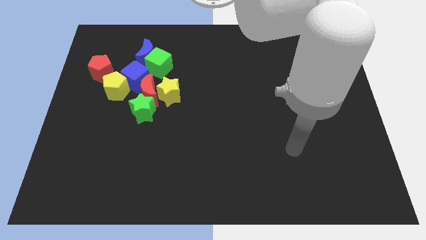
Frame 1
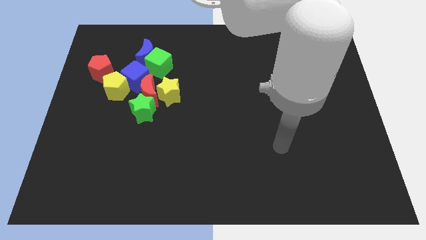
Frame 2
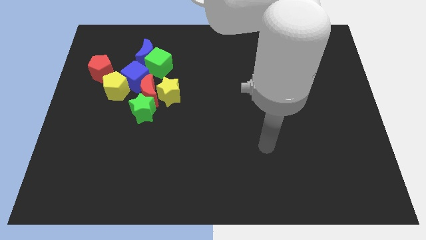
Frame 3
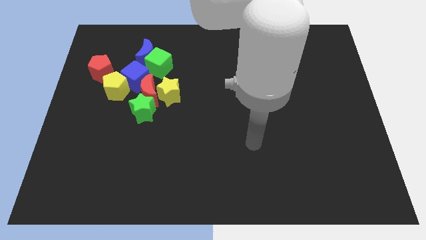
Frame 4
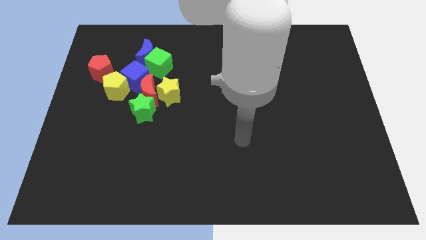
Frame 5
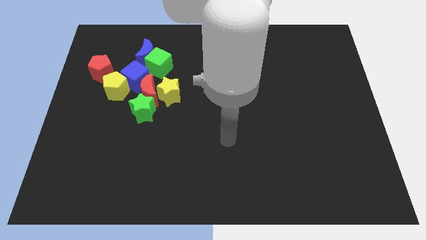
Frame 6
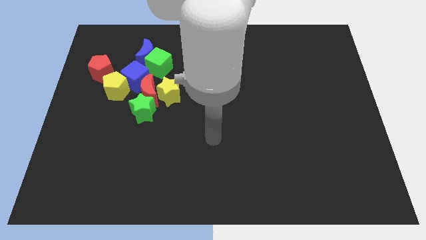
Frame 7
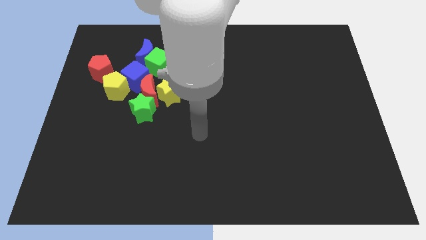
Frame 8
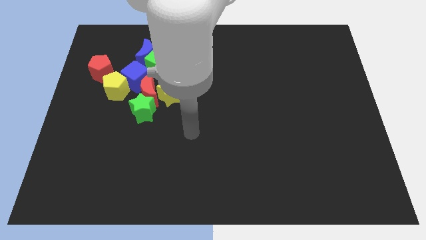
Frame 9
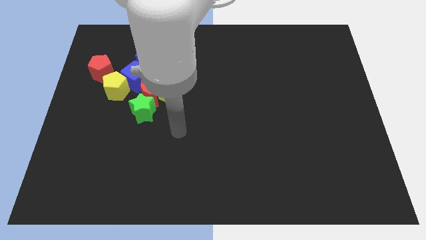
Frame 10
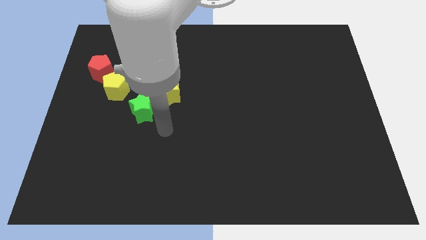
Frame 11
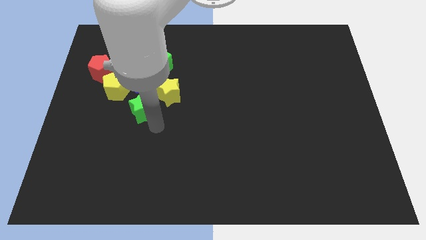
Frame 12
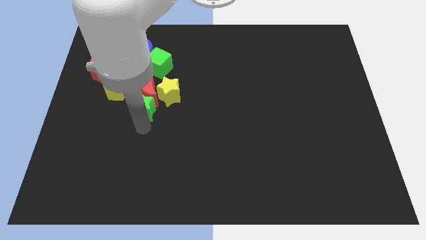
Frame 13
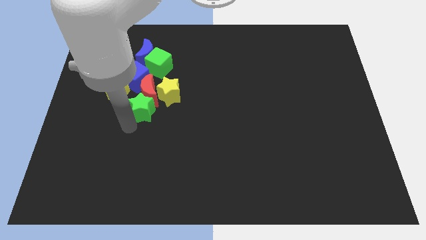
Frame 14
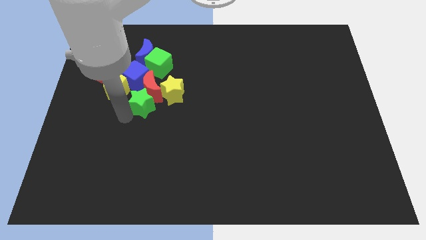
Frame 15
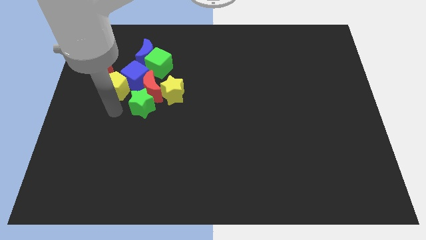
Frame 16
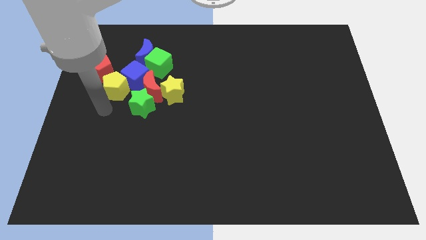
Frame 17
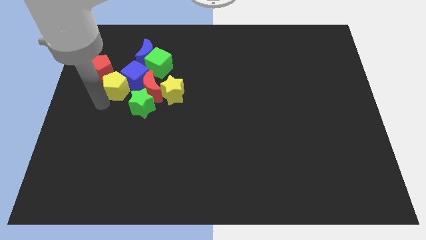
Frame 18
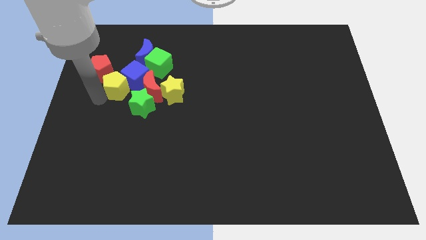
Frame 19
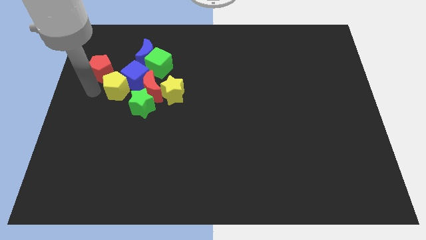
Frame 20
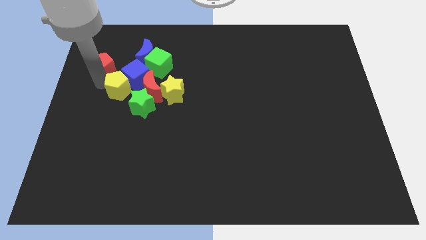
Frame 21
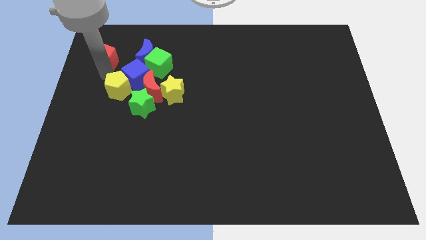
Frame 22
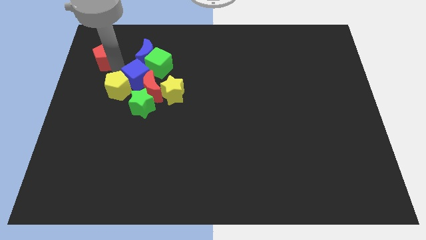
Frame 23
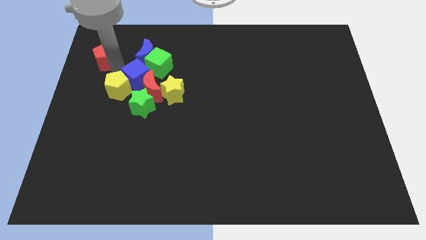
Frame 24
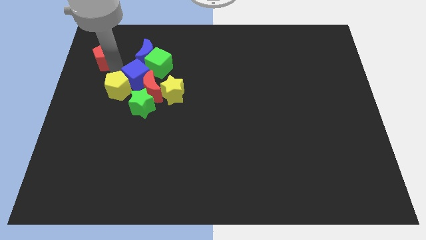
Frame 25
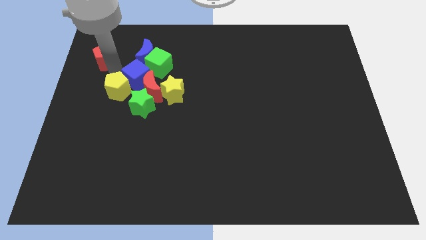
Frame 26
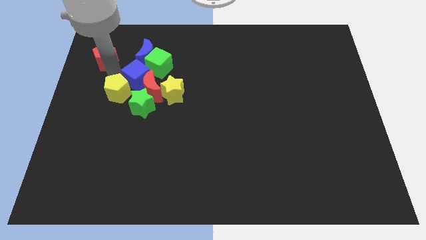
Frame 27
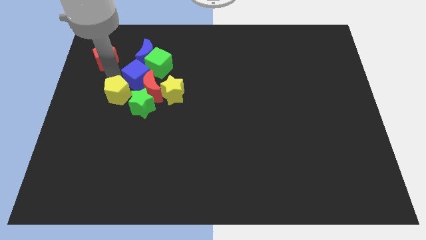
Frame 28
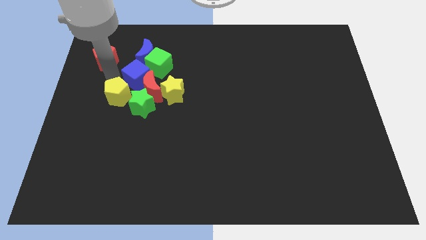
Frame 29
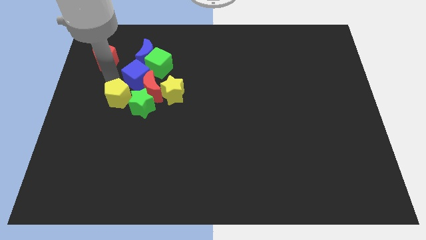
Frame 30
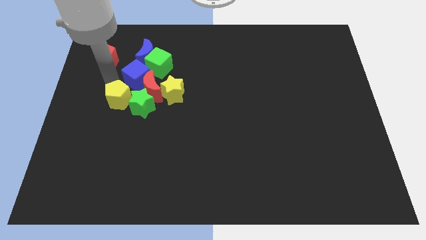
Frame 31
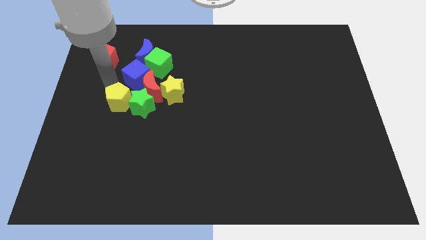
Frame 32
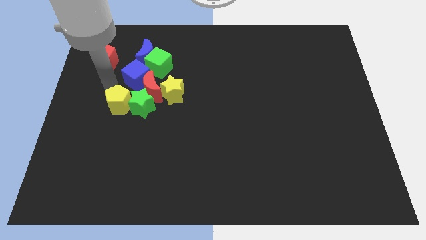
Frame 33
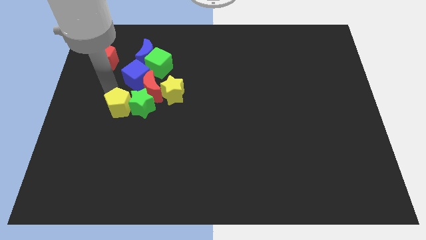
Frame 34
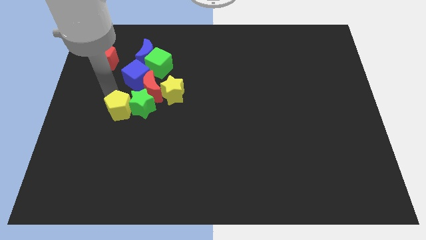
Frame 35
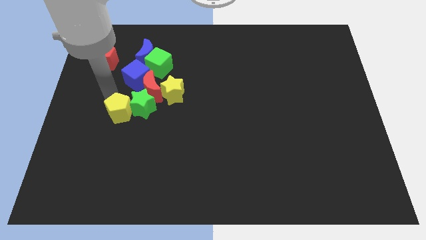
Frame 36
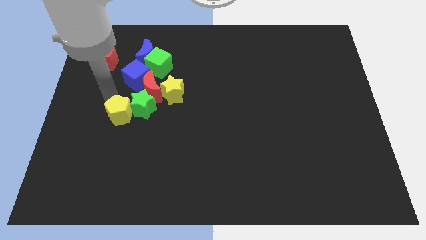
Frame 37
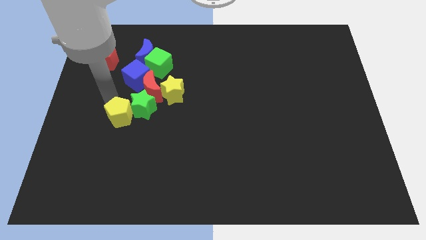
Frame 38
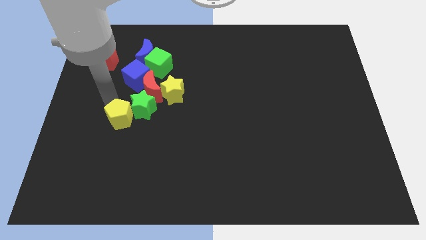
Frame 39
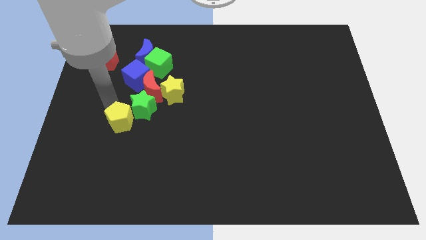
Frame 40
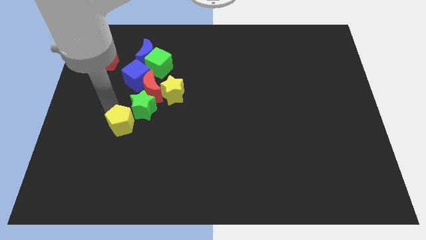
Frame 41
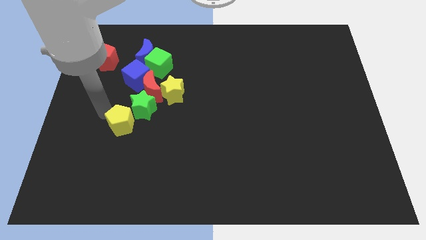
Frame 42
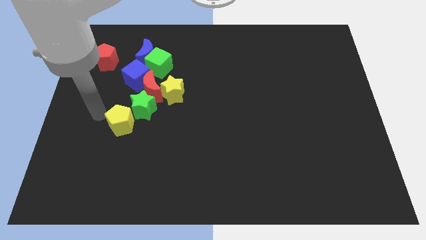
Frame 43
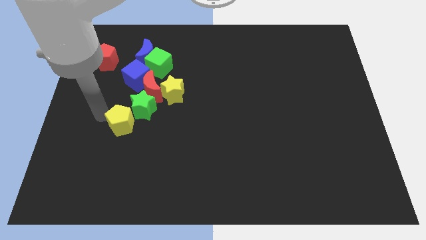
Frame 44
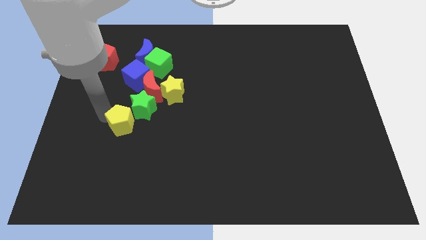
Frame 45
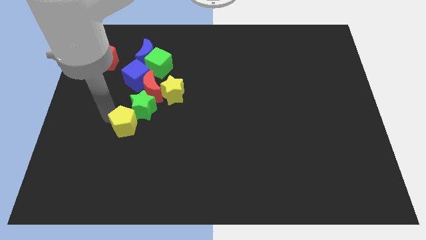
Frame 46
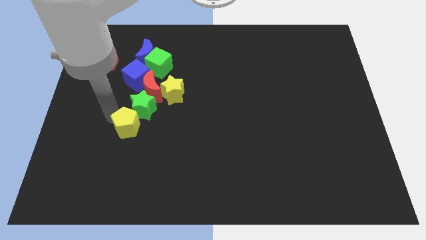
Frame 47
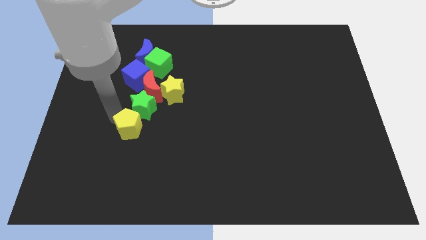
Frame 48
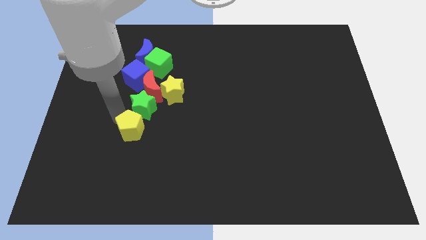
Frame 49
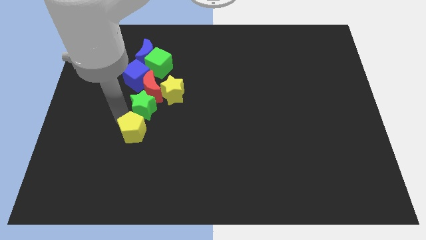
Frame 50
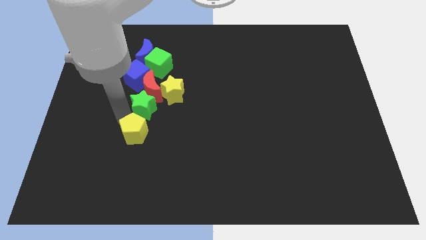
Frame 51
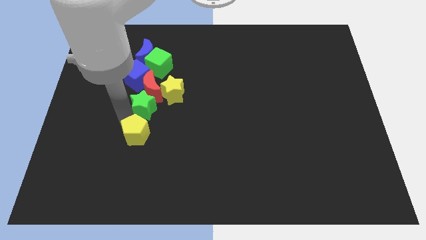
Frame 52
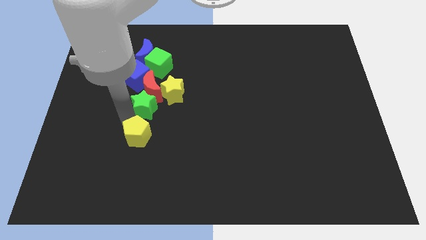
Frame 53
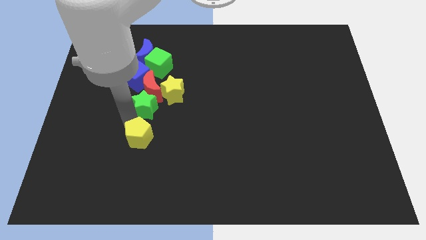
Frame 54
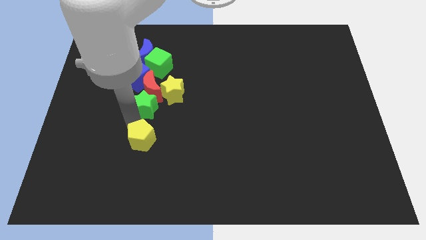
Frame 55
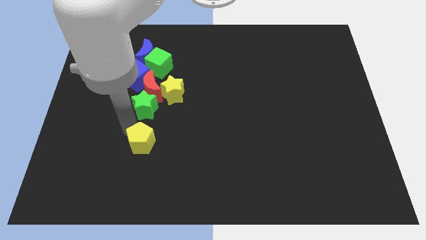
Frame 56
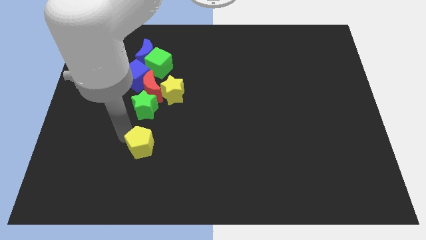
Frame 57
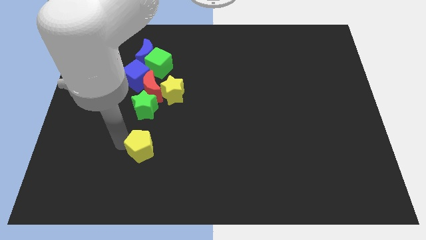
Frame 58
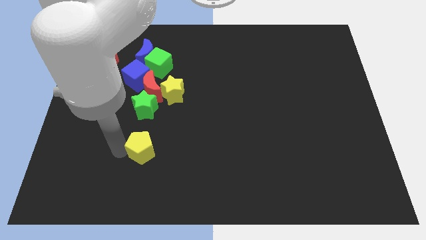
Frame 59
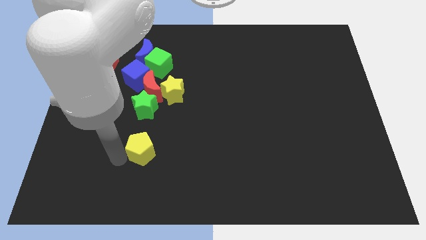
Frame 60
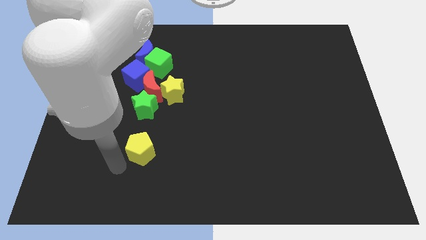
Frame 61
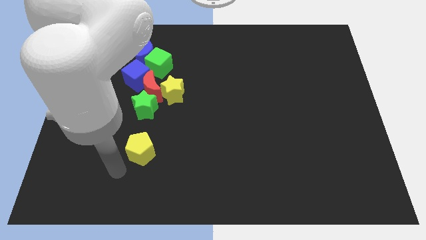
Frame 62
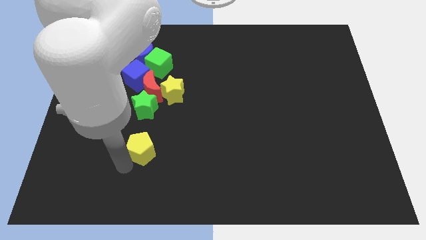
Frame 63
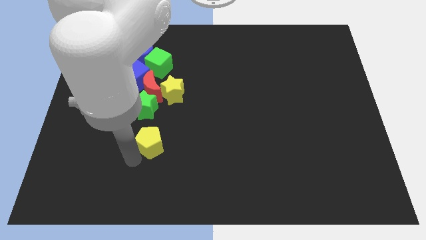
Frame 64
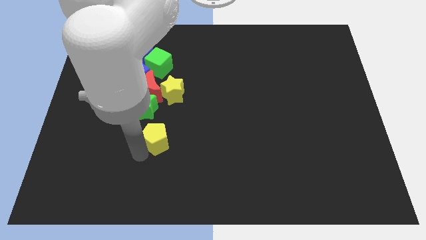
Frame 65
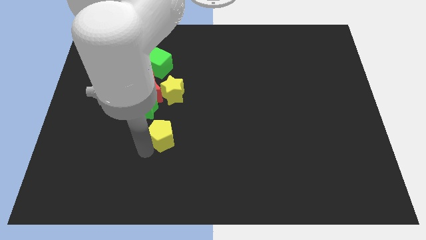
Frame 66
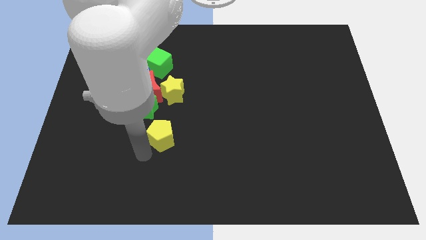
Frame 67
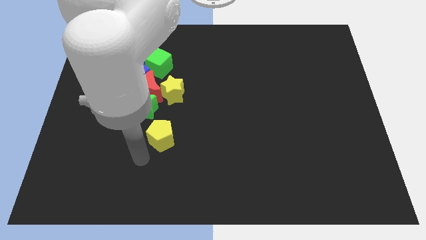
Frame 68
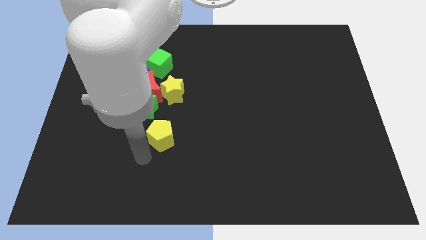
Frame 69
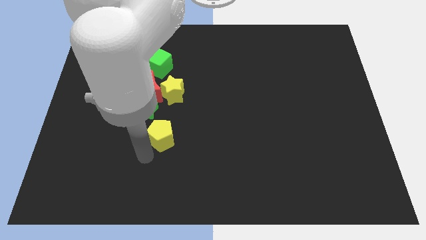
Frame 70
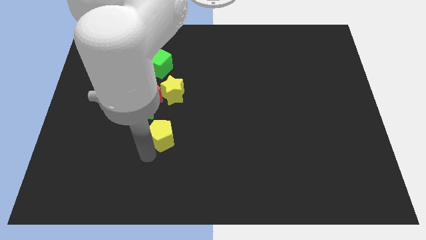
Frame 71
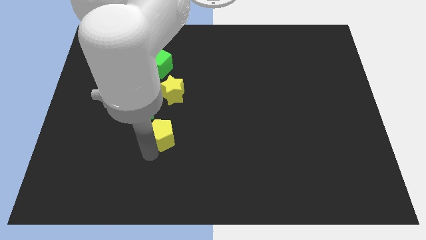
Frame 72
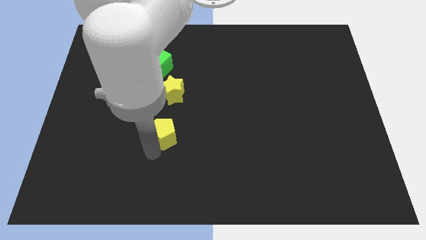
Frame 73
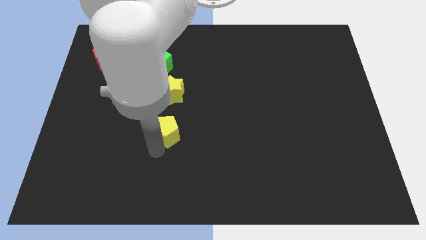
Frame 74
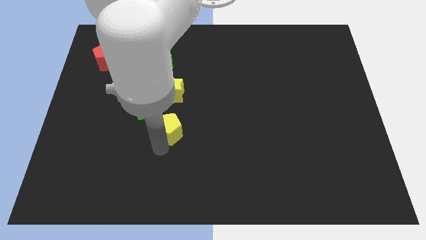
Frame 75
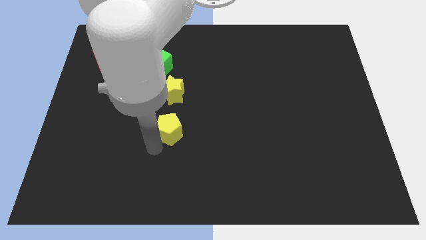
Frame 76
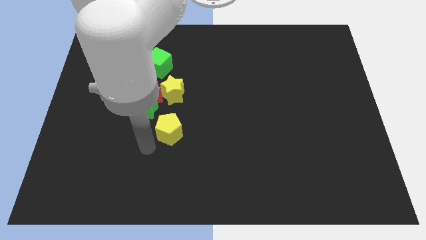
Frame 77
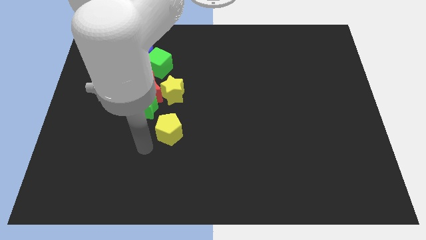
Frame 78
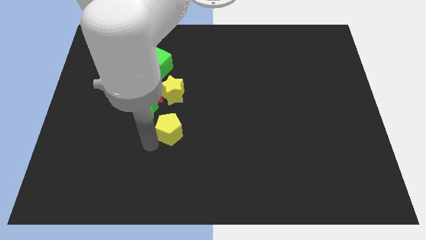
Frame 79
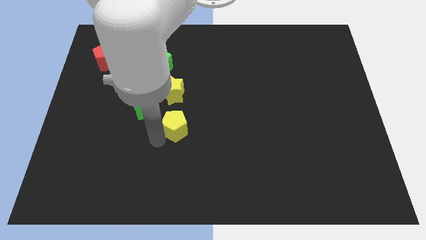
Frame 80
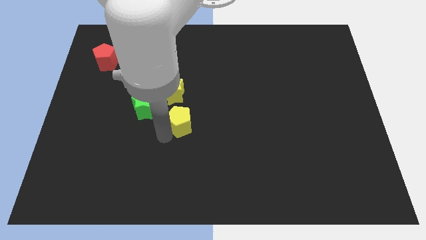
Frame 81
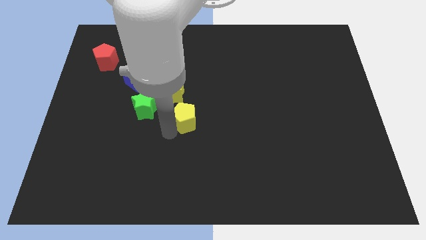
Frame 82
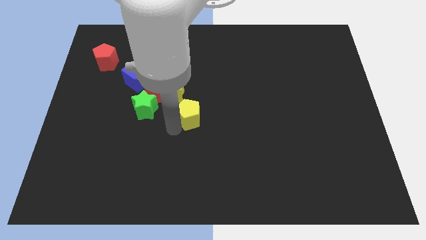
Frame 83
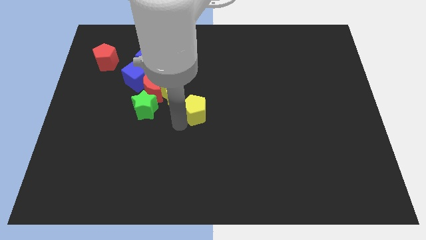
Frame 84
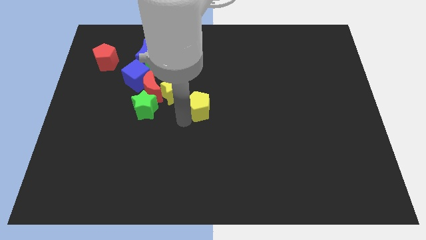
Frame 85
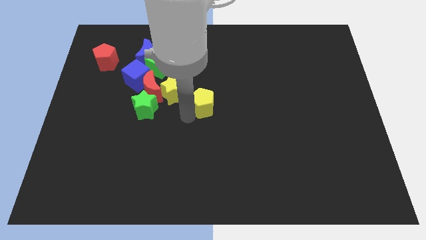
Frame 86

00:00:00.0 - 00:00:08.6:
slide the yellow pentagon right
